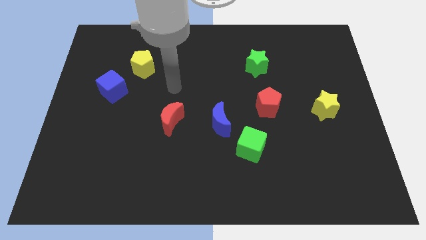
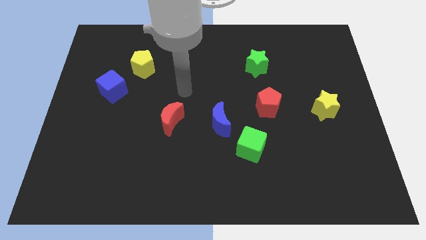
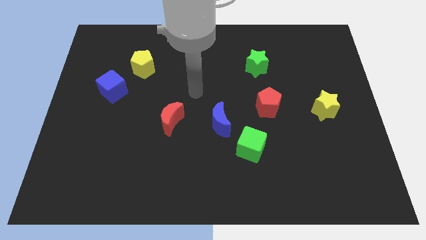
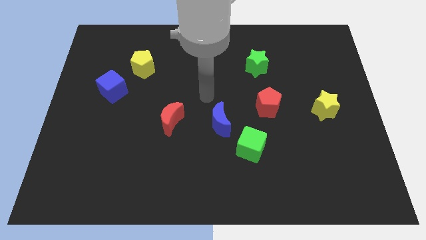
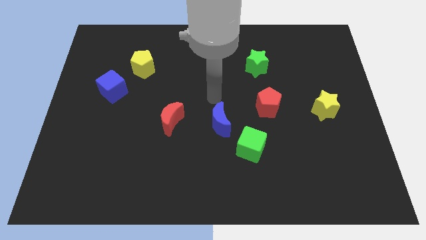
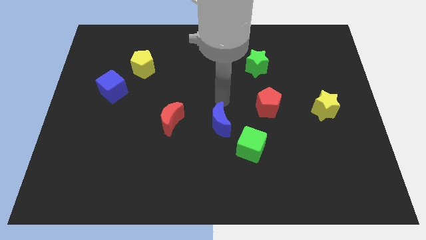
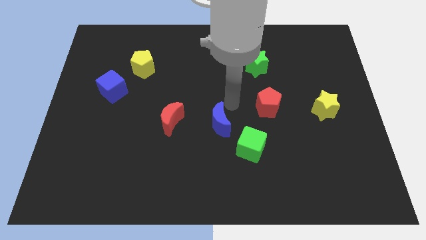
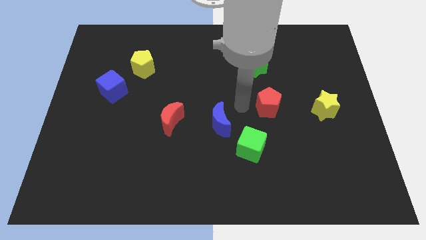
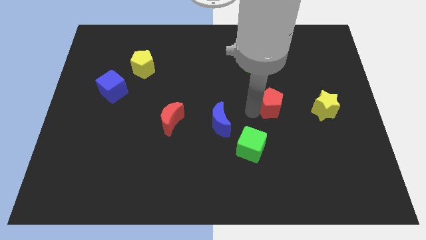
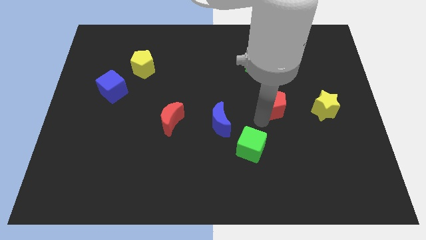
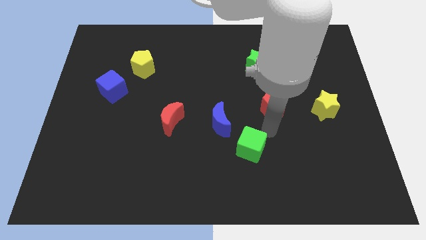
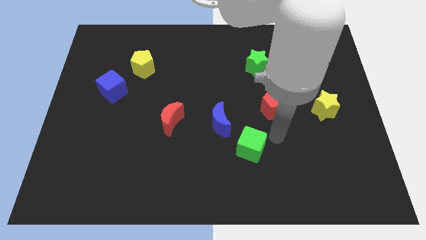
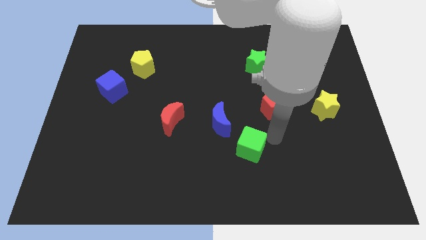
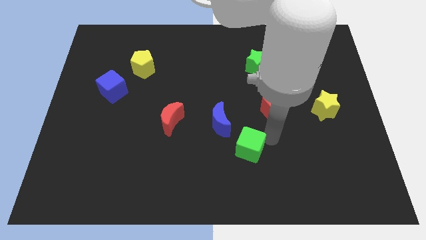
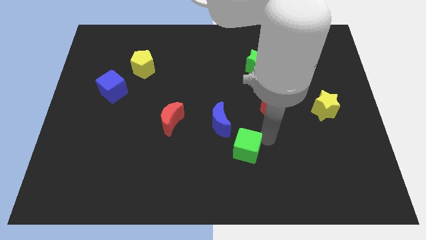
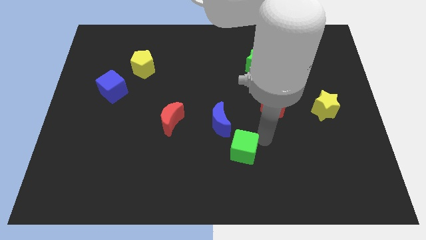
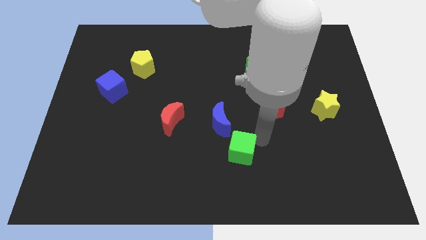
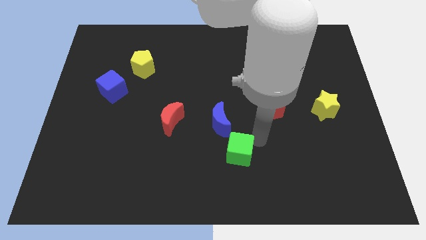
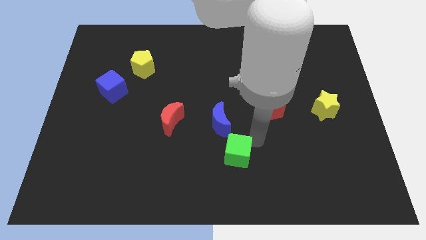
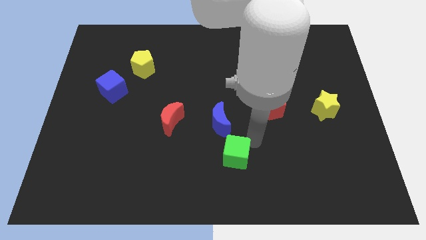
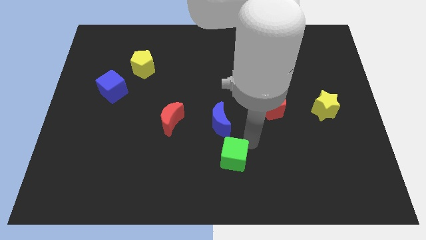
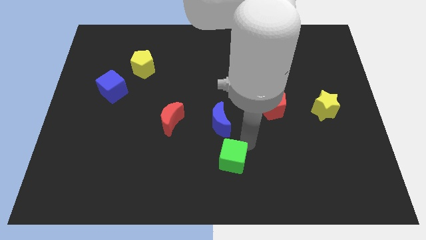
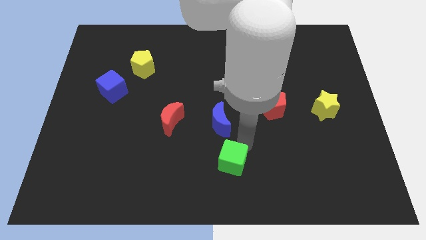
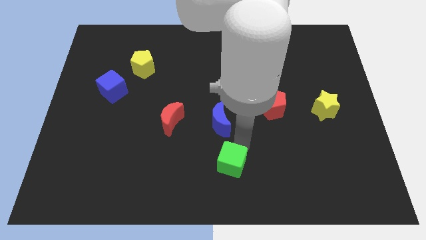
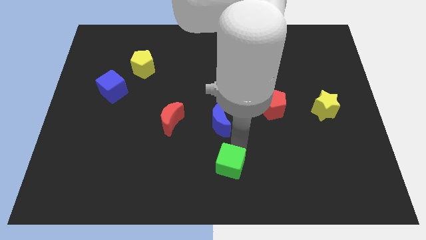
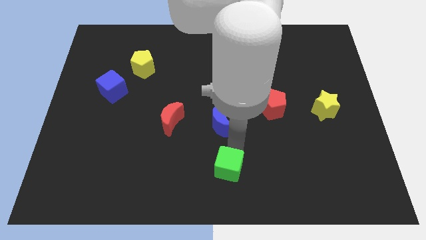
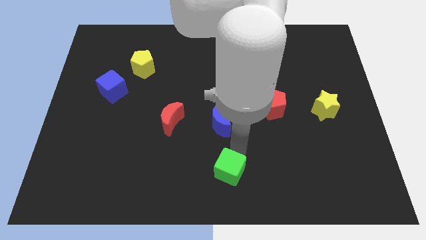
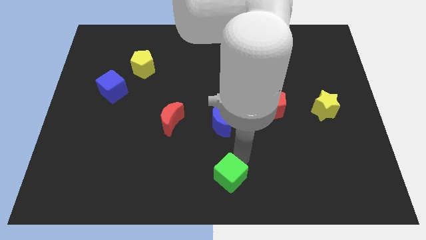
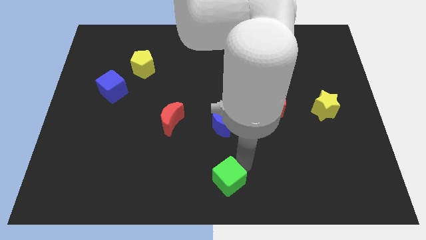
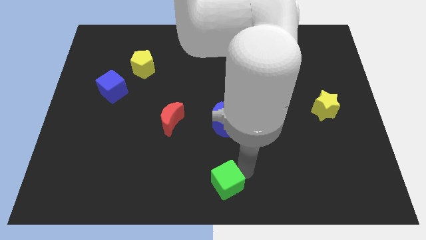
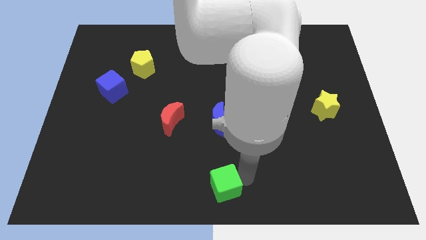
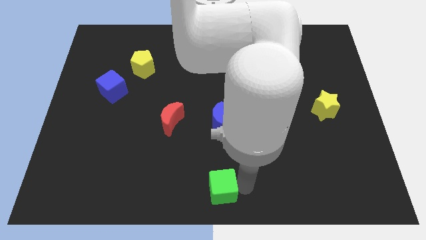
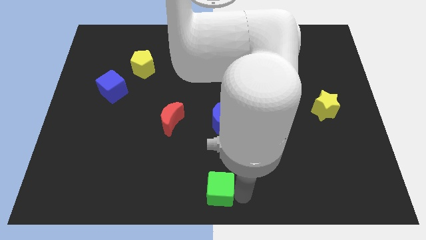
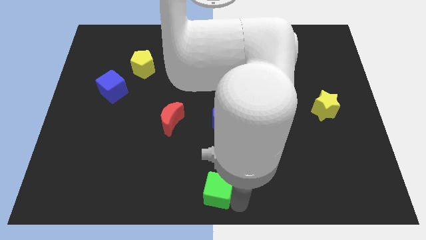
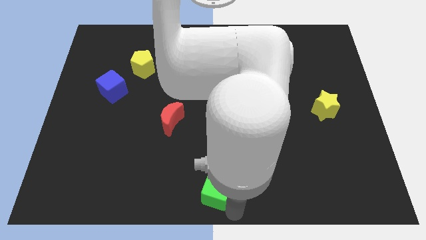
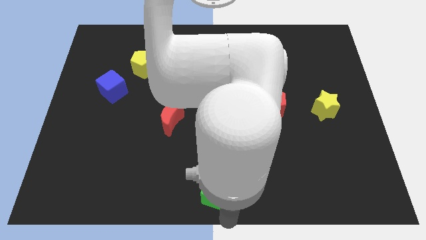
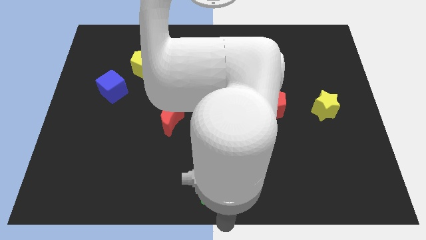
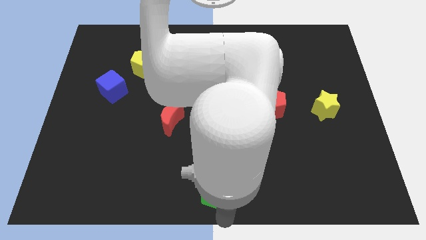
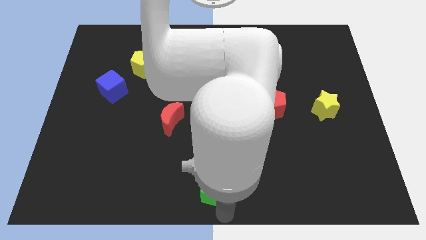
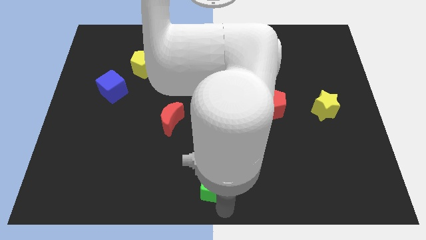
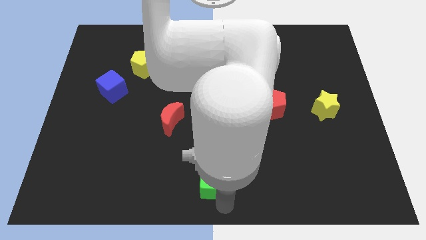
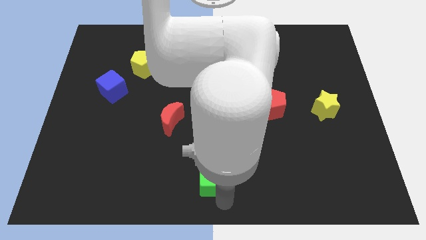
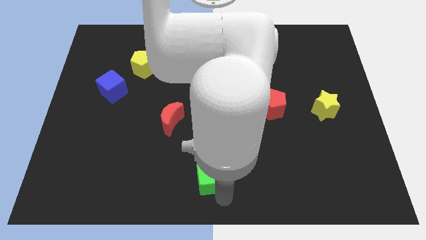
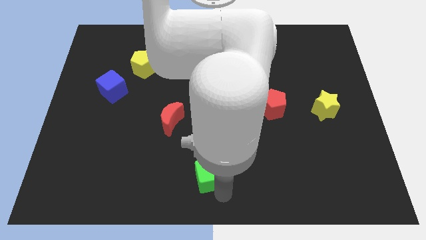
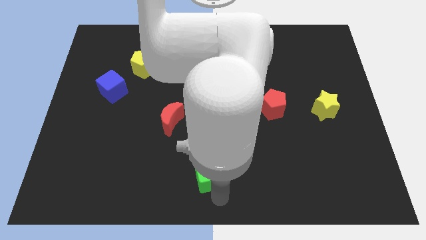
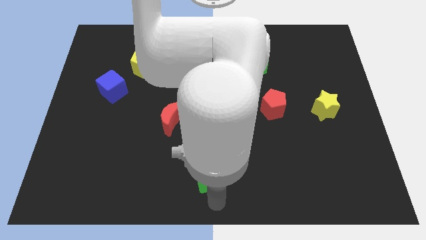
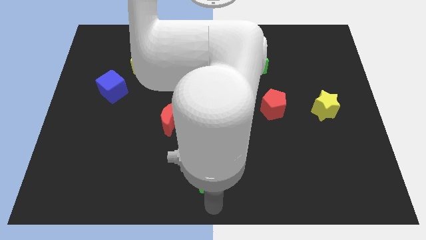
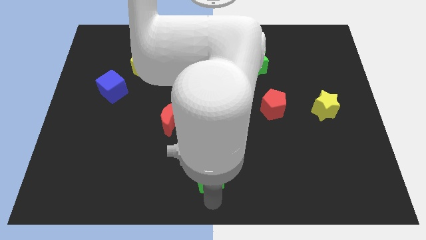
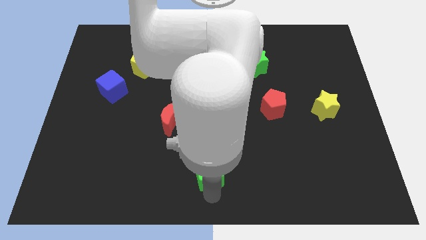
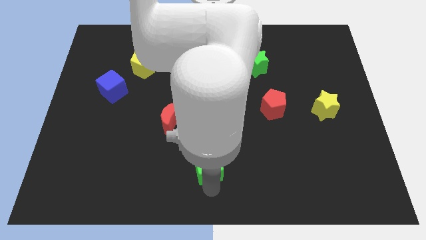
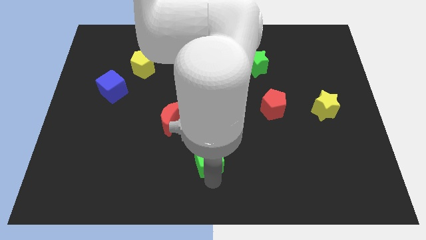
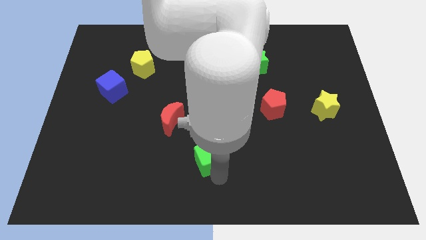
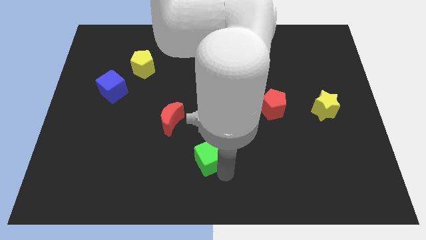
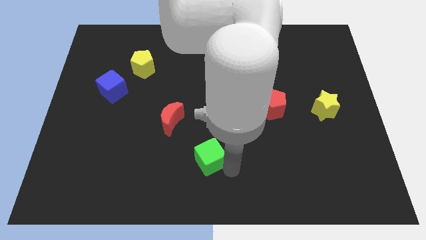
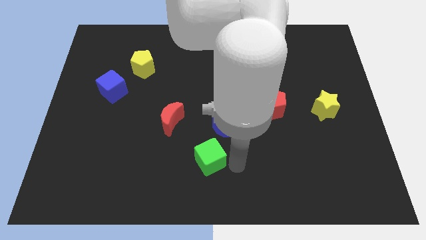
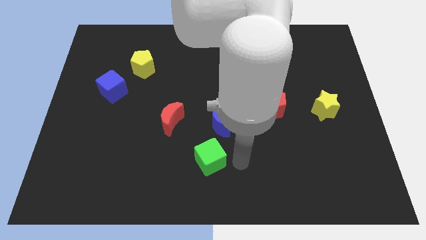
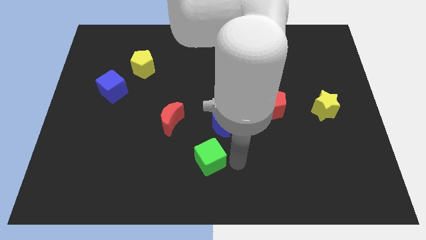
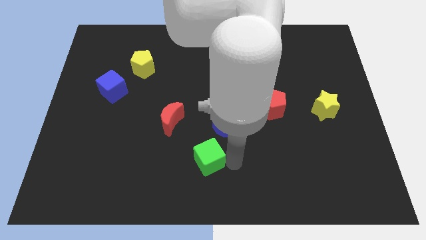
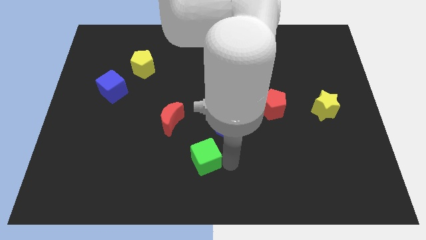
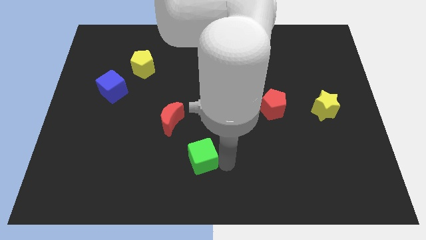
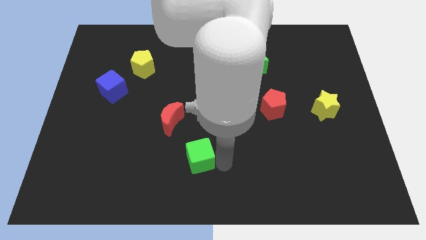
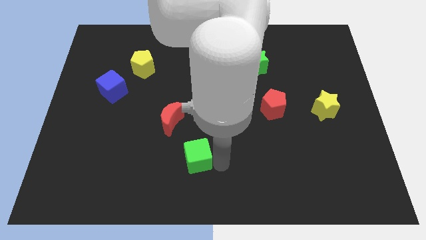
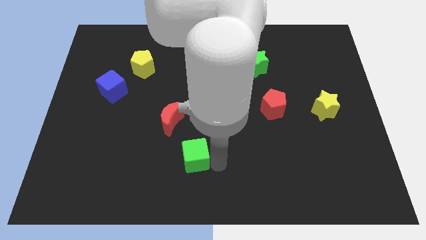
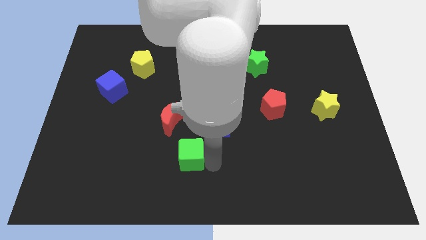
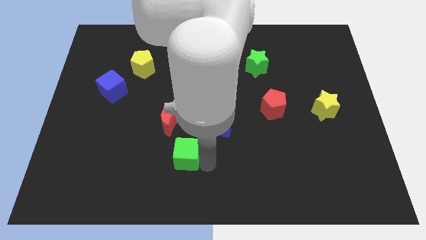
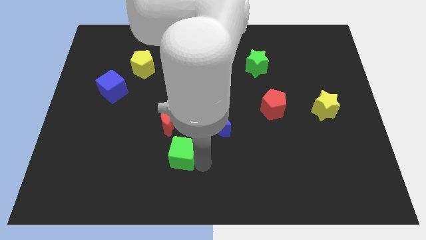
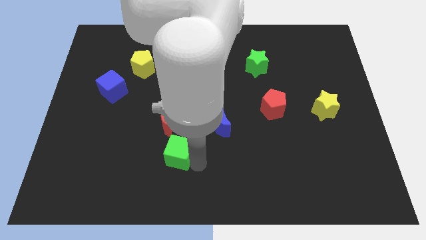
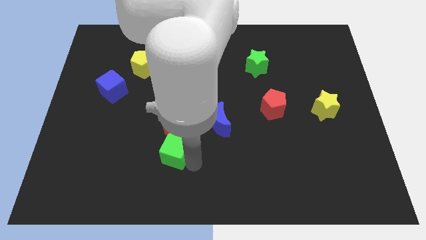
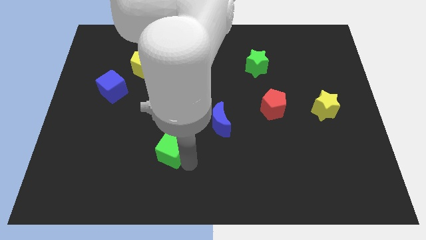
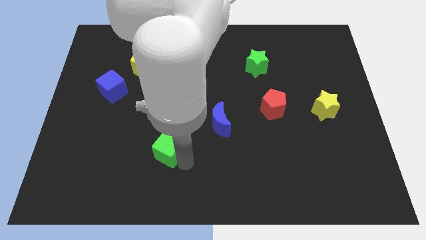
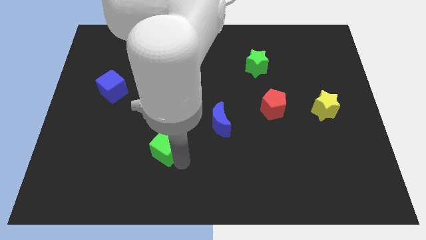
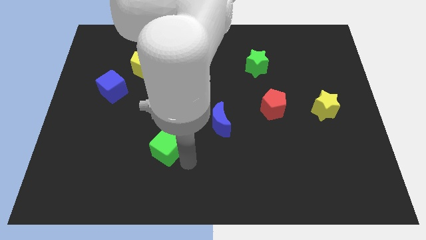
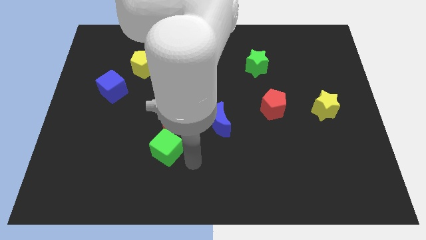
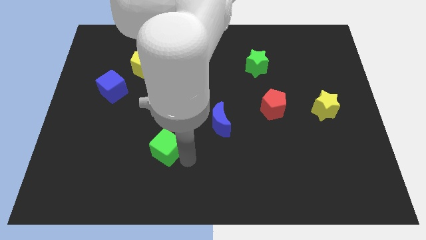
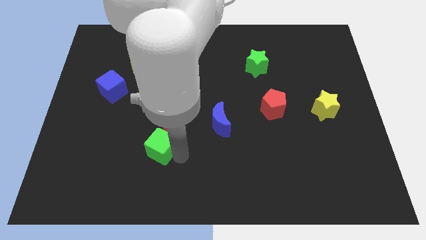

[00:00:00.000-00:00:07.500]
slide the green cube to the bottom left of the red moon

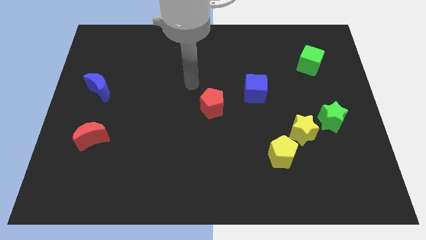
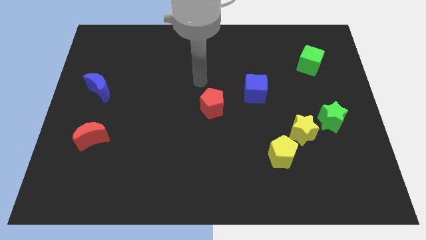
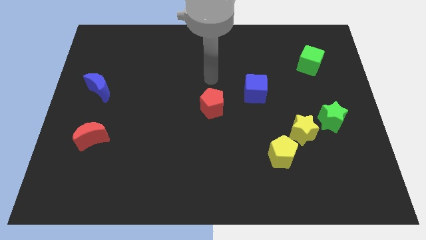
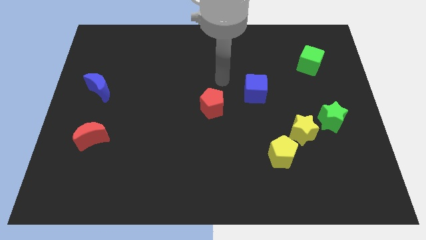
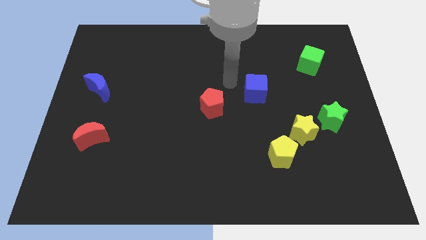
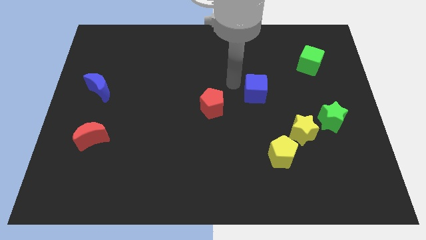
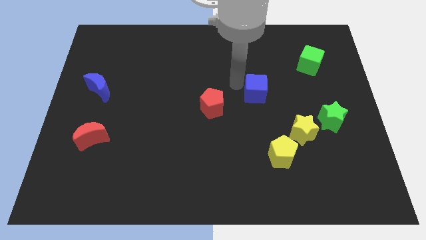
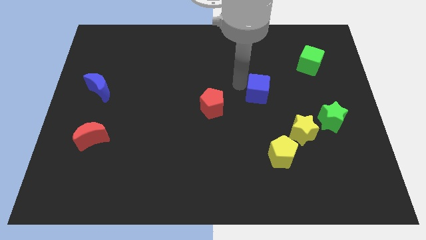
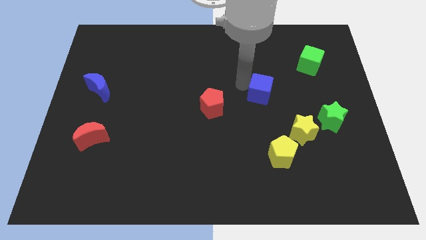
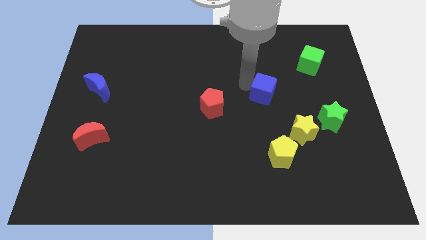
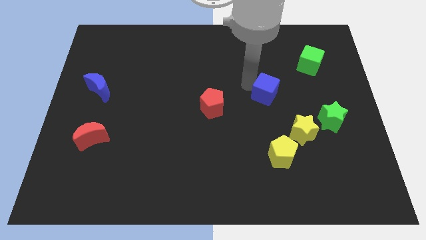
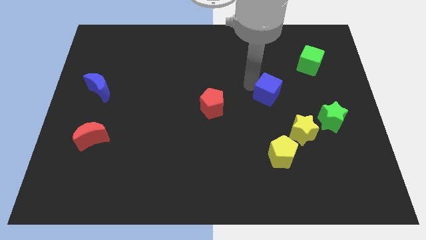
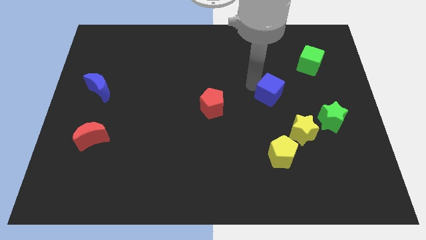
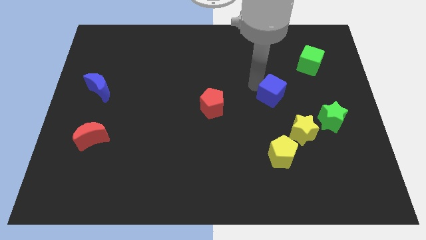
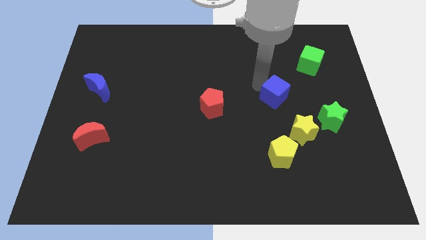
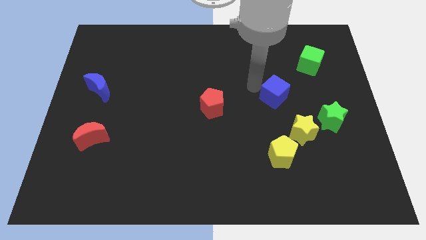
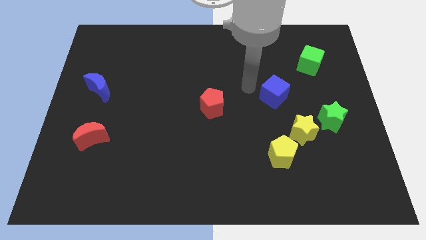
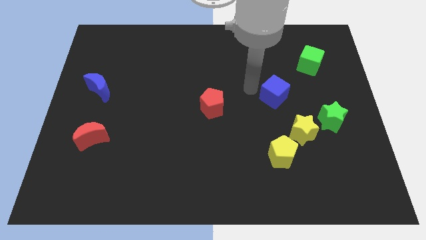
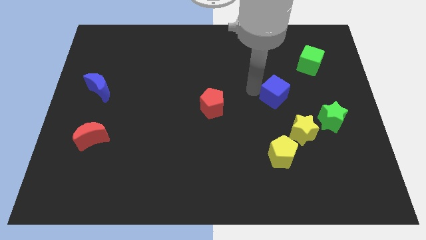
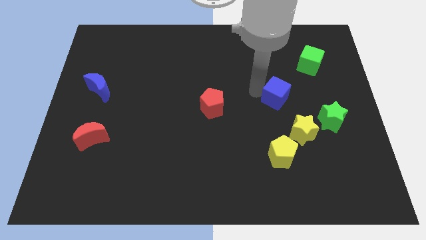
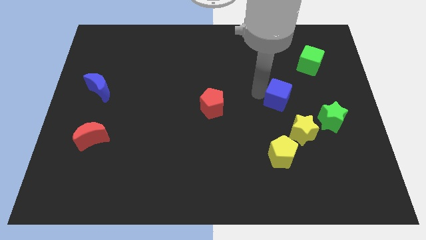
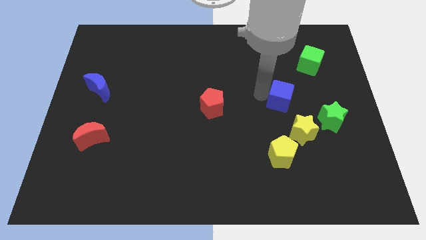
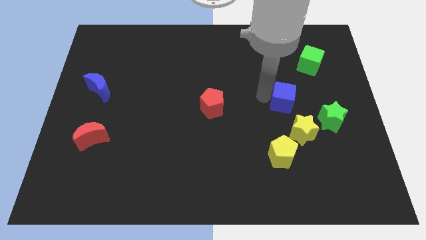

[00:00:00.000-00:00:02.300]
put the blue cube to the top left of the green star
